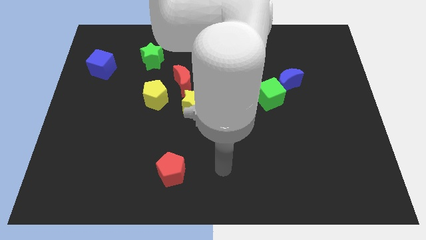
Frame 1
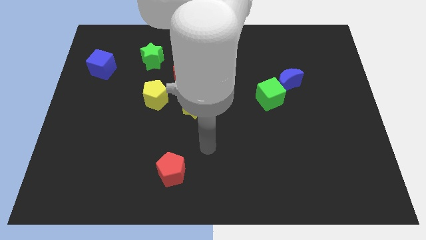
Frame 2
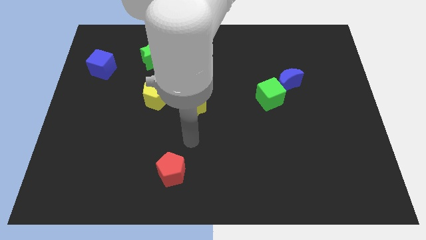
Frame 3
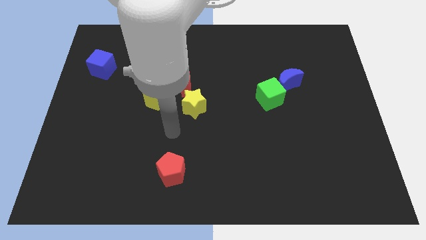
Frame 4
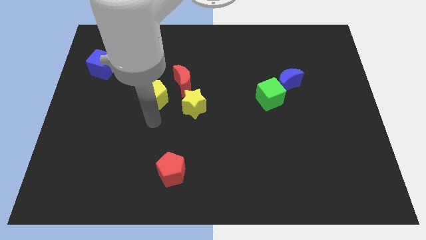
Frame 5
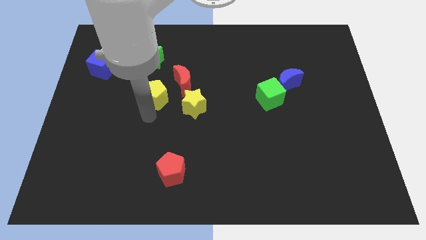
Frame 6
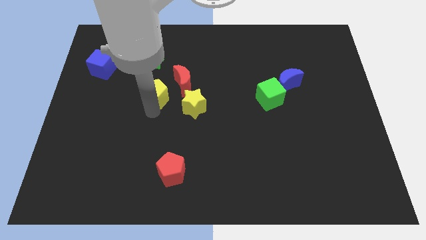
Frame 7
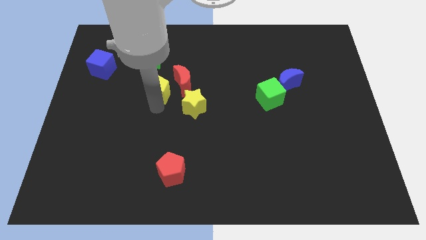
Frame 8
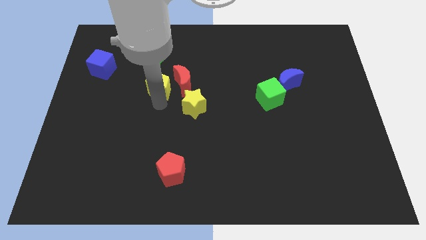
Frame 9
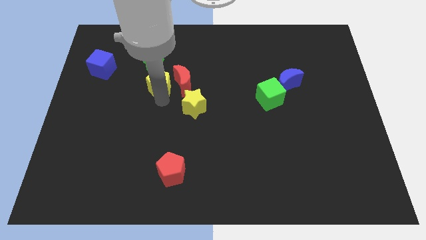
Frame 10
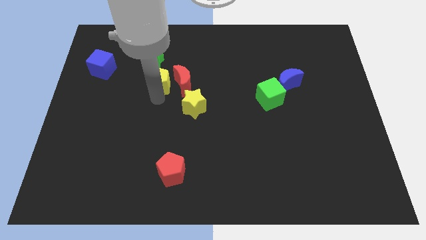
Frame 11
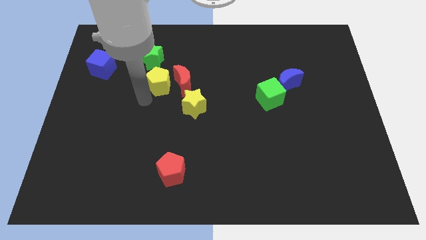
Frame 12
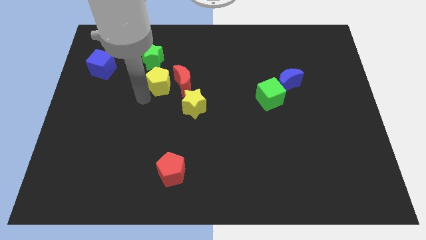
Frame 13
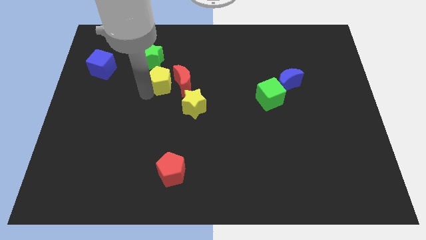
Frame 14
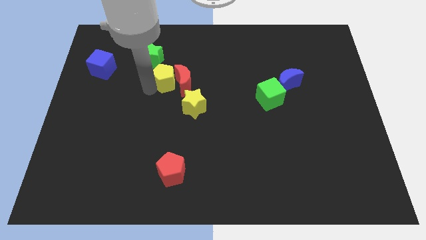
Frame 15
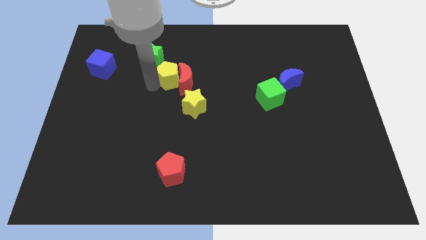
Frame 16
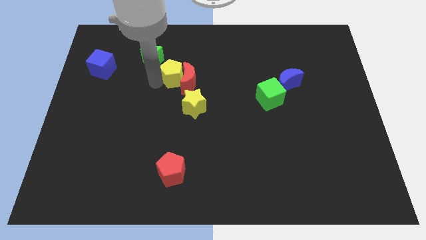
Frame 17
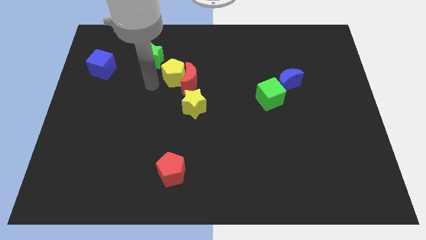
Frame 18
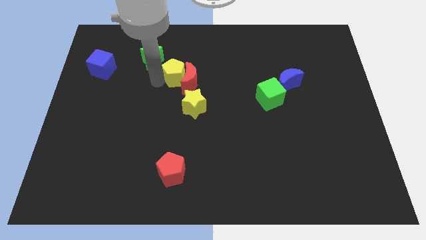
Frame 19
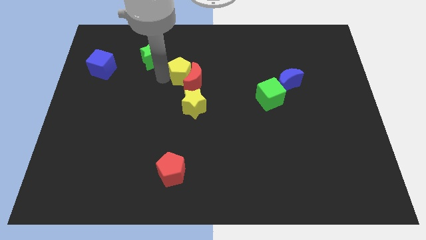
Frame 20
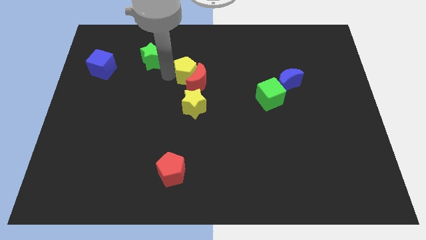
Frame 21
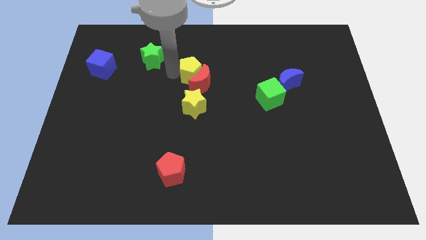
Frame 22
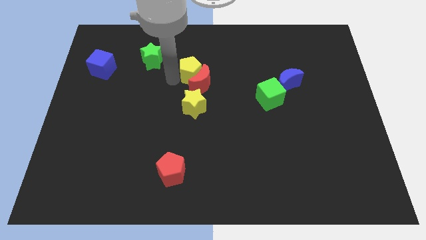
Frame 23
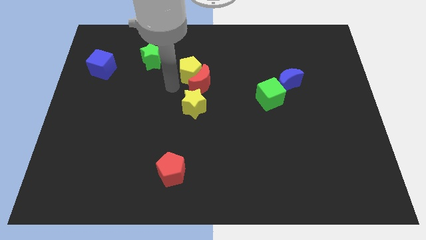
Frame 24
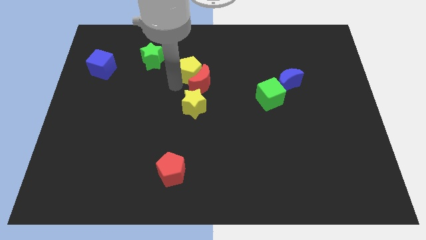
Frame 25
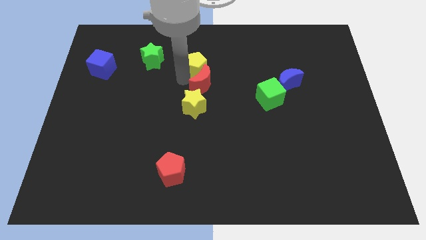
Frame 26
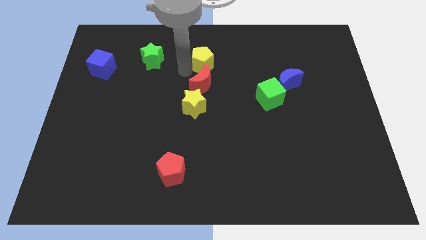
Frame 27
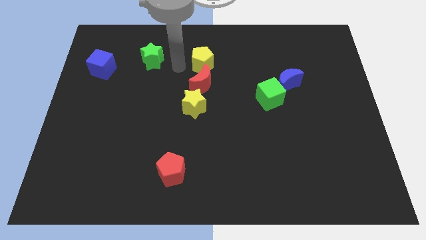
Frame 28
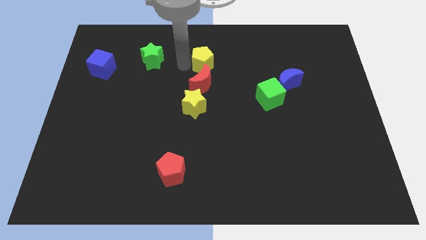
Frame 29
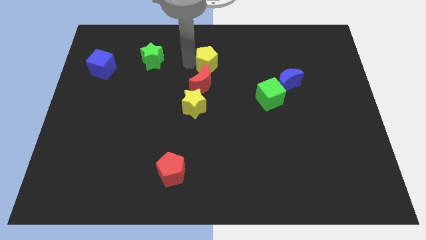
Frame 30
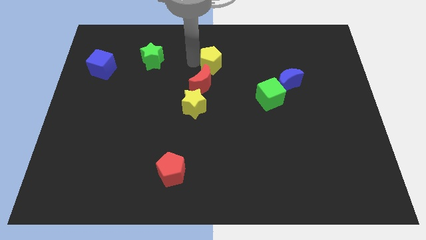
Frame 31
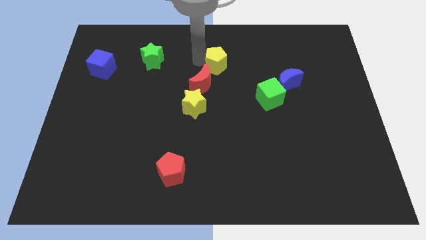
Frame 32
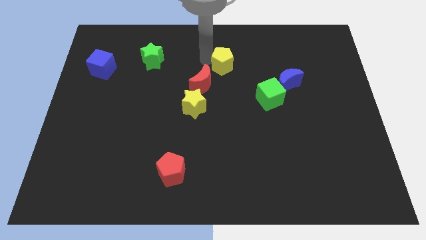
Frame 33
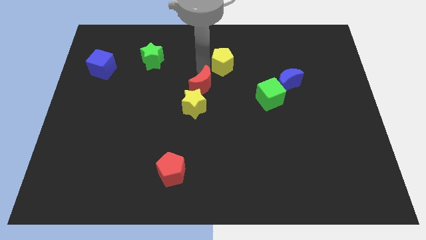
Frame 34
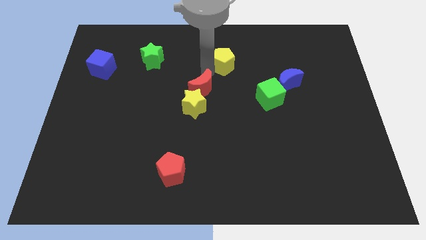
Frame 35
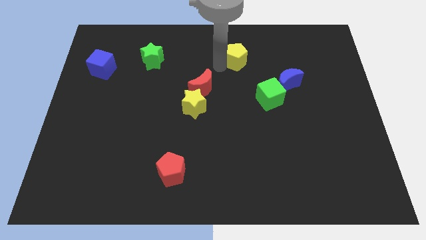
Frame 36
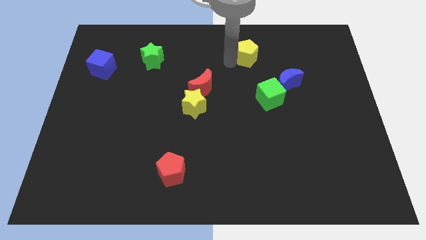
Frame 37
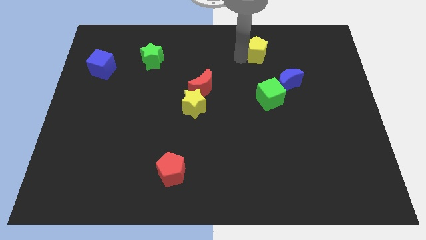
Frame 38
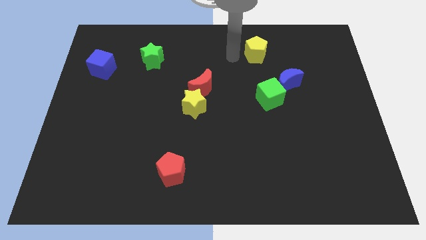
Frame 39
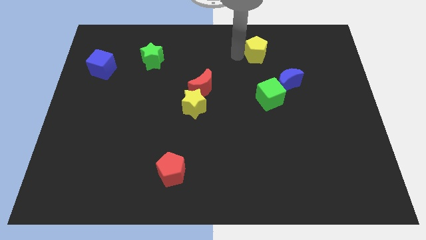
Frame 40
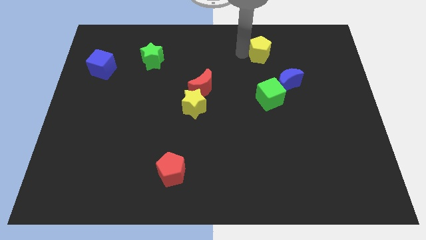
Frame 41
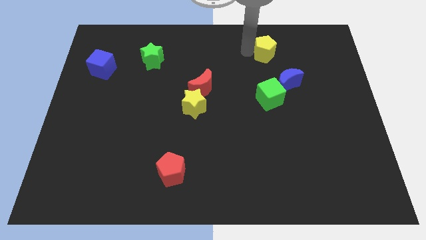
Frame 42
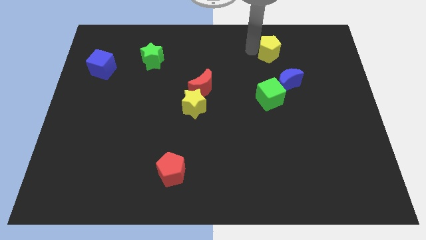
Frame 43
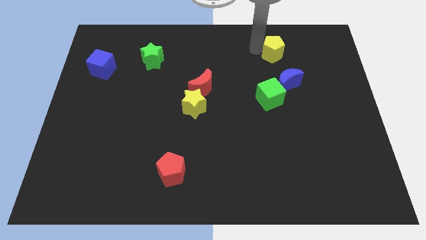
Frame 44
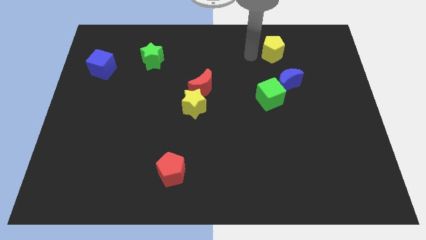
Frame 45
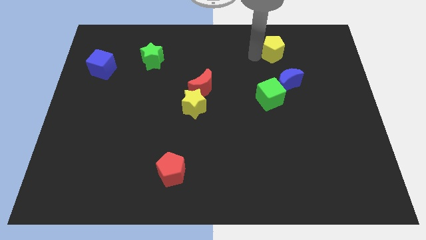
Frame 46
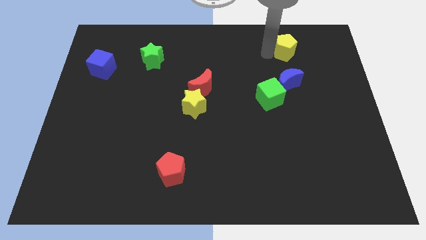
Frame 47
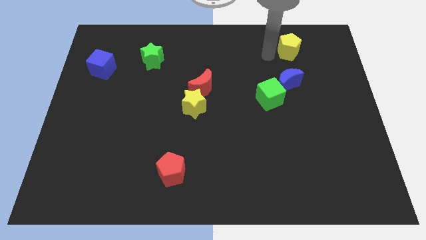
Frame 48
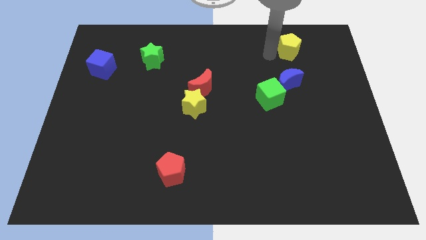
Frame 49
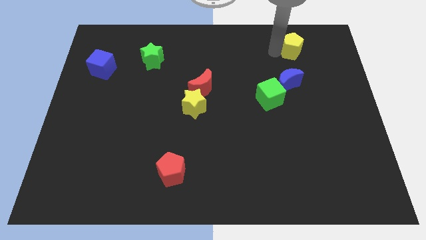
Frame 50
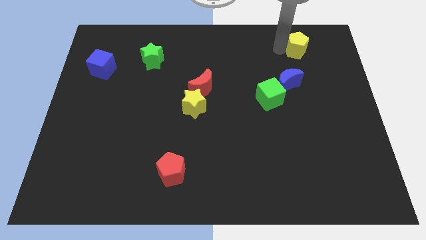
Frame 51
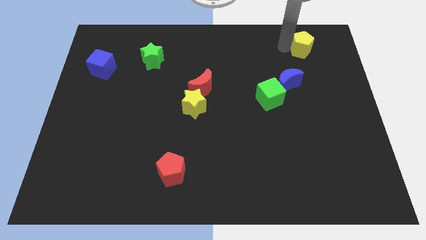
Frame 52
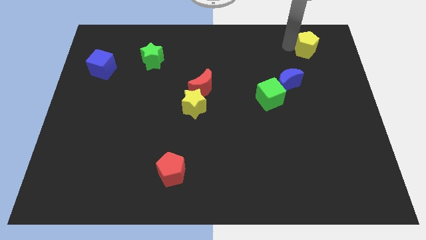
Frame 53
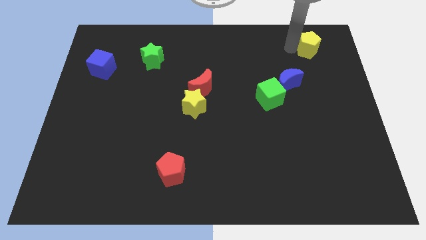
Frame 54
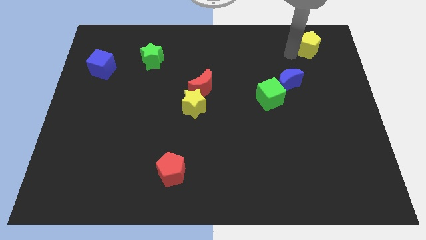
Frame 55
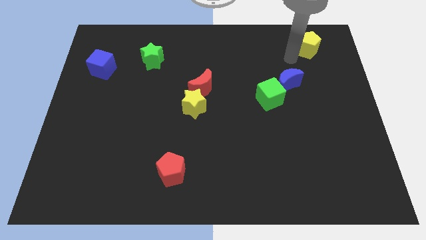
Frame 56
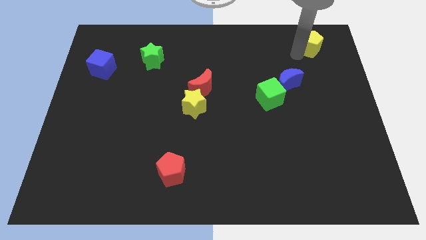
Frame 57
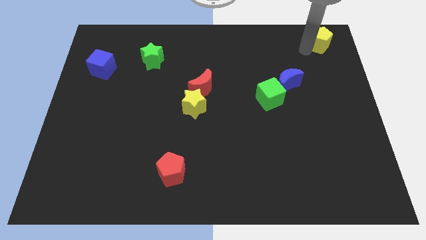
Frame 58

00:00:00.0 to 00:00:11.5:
slide the yellow pentagon to the upper right corner
